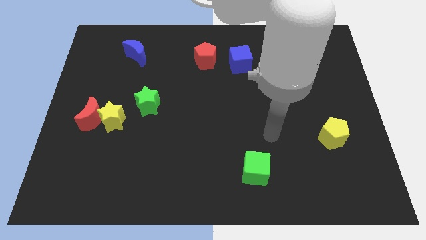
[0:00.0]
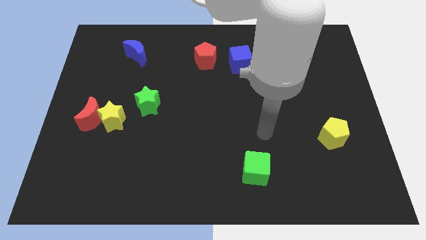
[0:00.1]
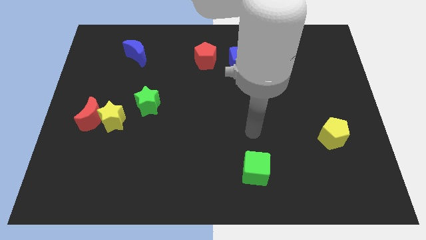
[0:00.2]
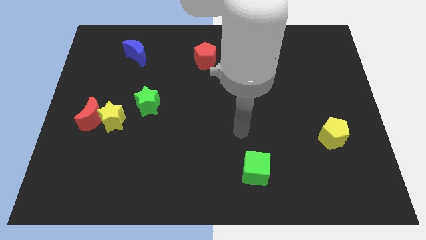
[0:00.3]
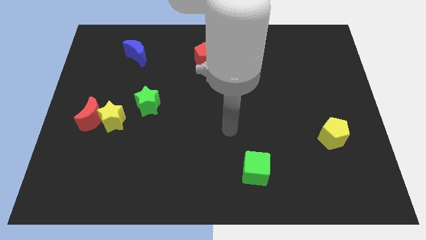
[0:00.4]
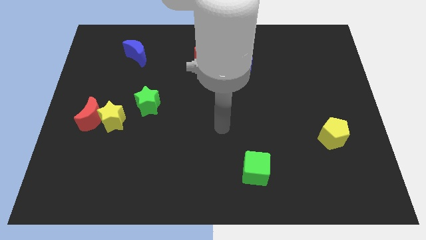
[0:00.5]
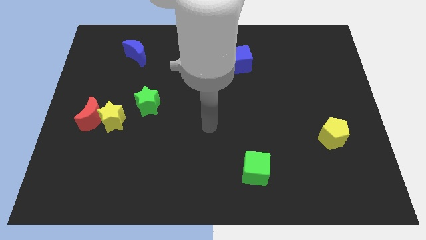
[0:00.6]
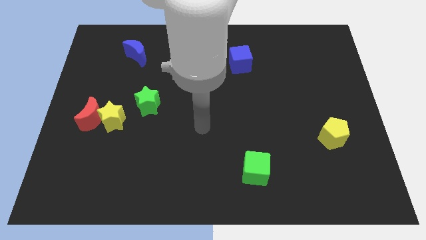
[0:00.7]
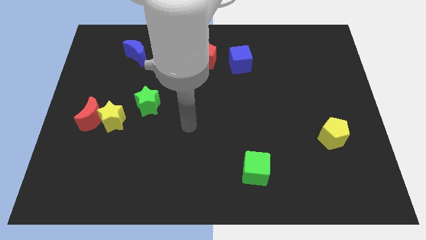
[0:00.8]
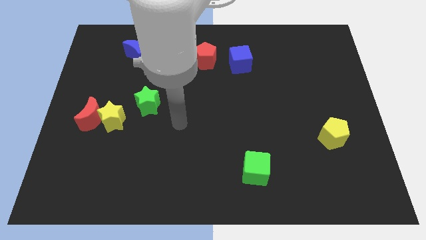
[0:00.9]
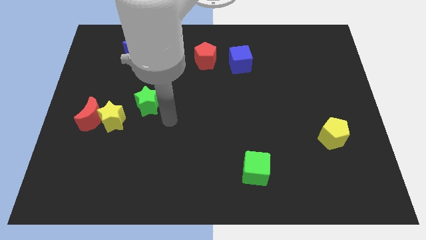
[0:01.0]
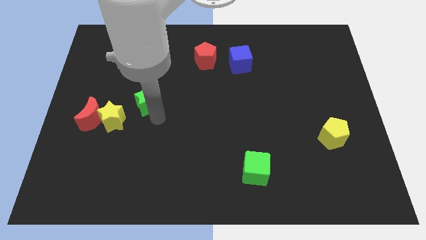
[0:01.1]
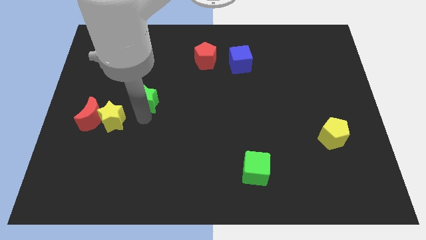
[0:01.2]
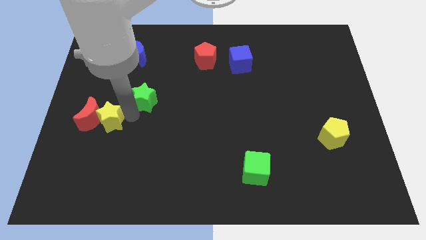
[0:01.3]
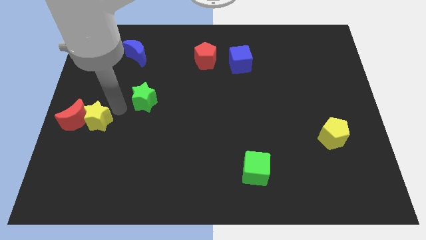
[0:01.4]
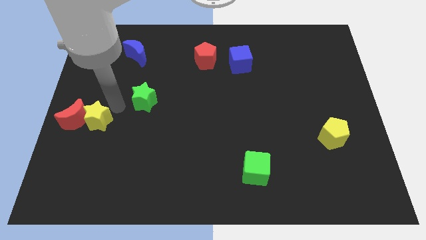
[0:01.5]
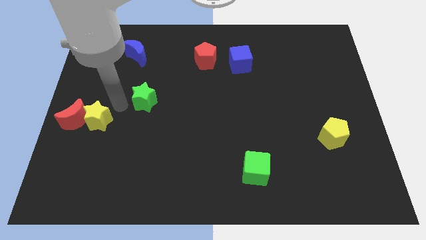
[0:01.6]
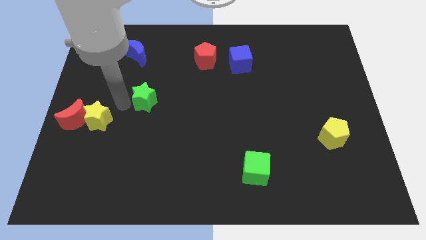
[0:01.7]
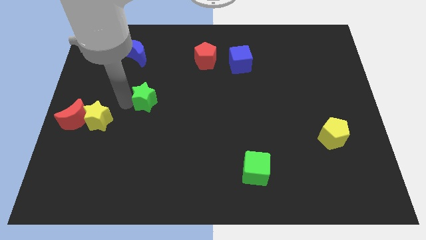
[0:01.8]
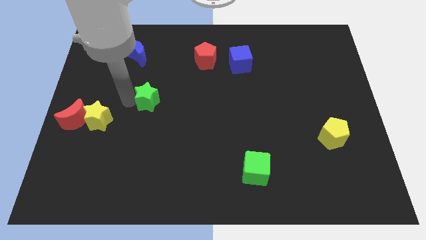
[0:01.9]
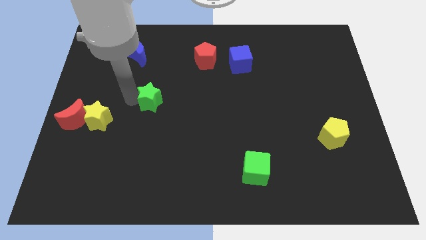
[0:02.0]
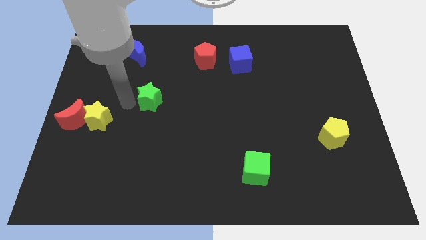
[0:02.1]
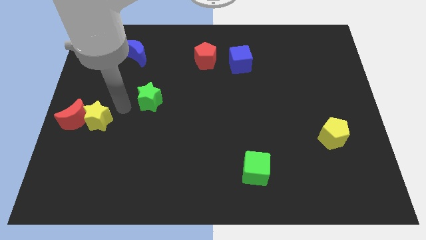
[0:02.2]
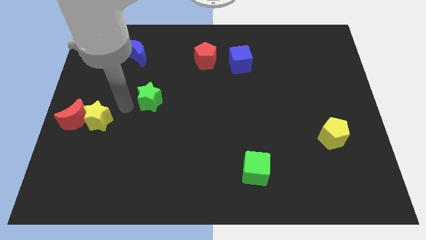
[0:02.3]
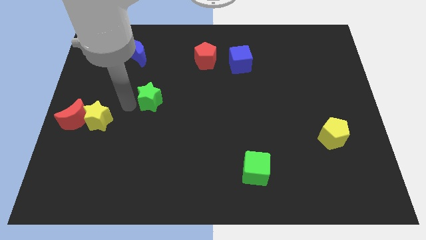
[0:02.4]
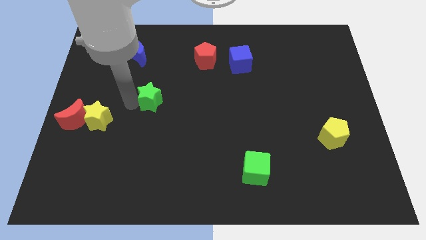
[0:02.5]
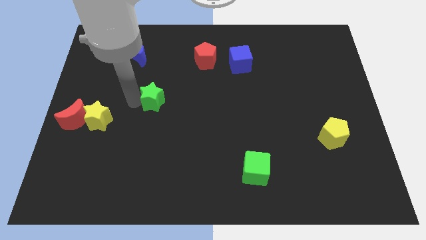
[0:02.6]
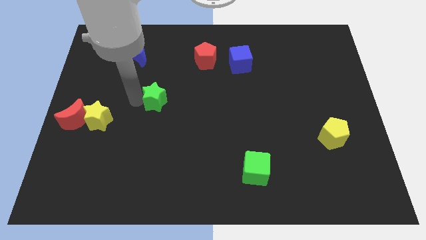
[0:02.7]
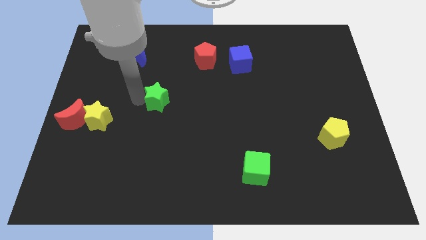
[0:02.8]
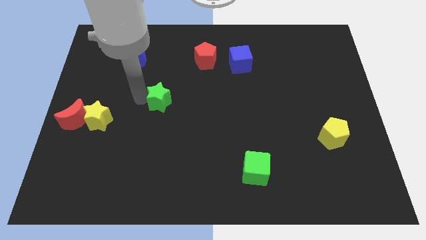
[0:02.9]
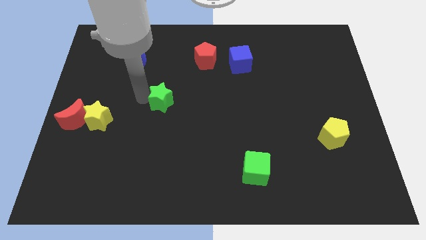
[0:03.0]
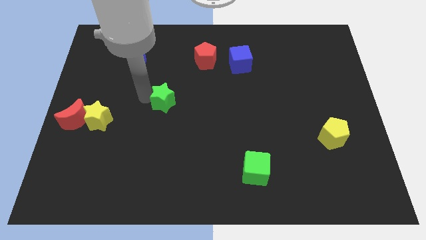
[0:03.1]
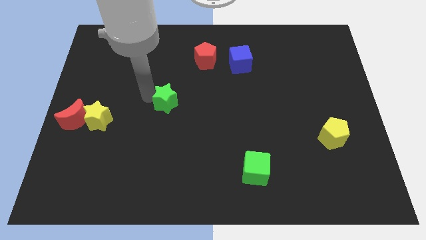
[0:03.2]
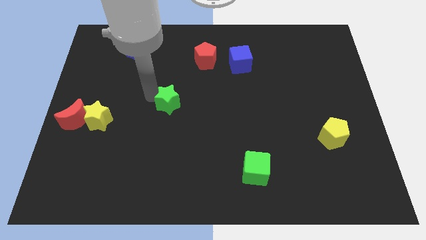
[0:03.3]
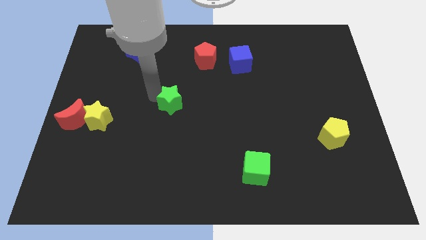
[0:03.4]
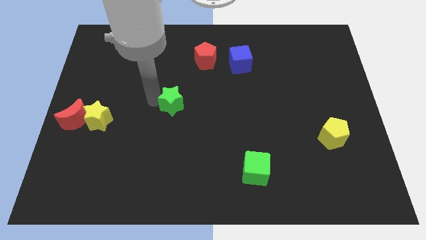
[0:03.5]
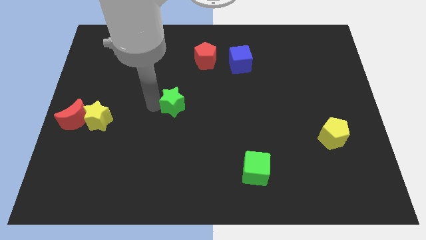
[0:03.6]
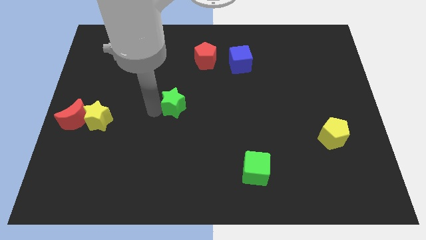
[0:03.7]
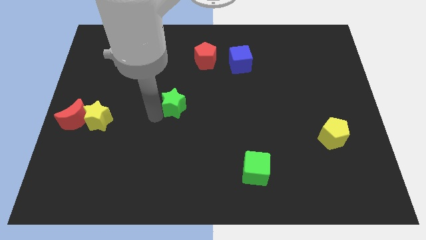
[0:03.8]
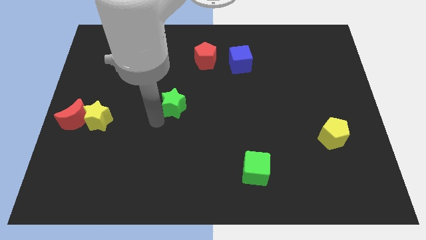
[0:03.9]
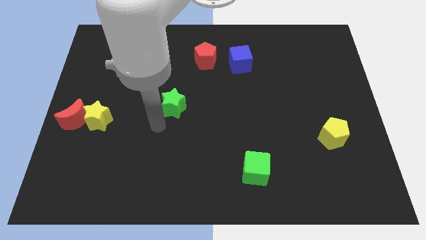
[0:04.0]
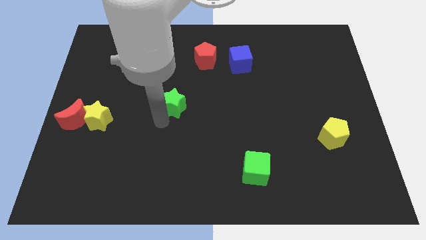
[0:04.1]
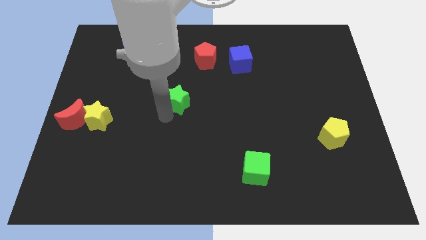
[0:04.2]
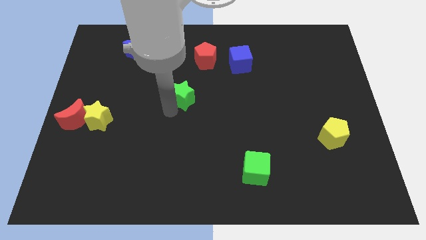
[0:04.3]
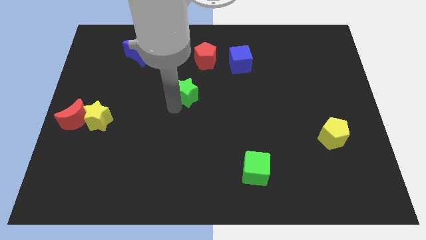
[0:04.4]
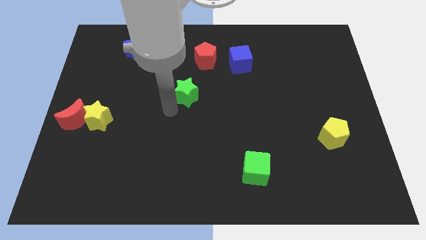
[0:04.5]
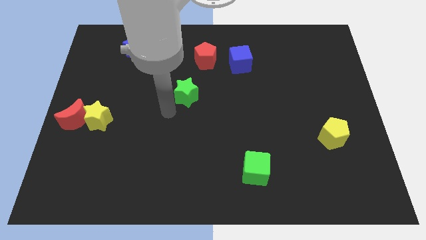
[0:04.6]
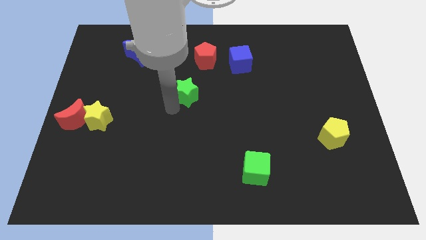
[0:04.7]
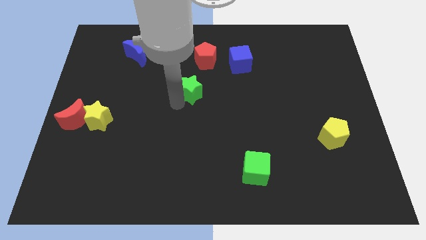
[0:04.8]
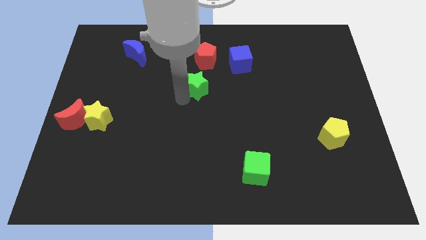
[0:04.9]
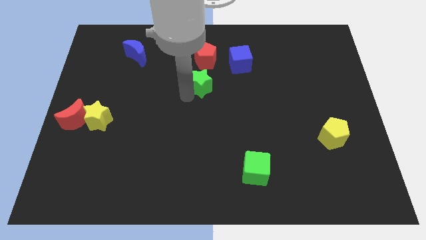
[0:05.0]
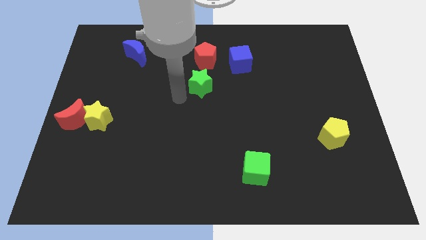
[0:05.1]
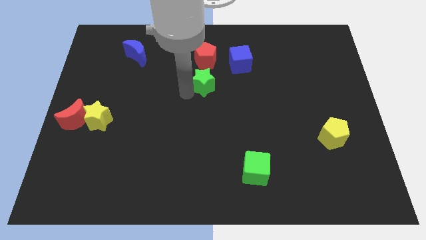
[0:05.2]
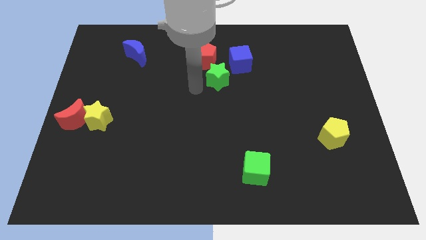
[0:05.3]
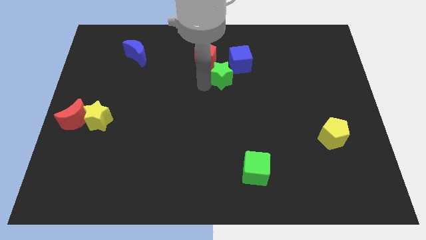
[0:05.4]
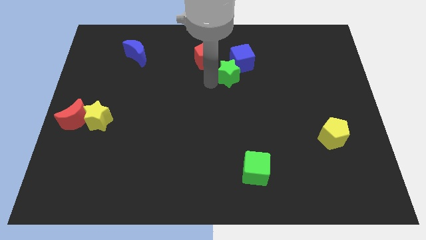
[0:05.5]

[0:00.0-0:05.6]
put the green star towards the blue cube

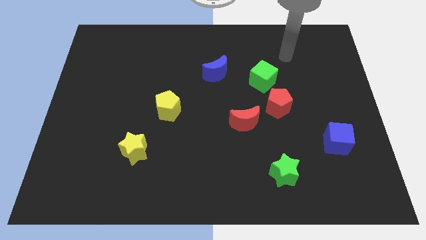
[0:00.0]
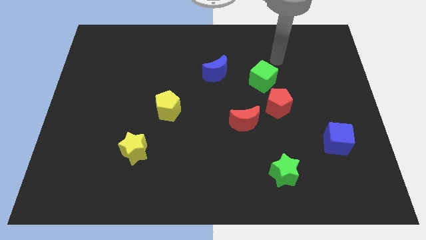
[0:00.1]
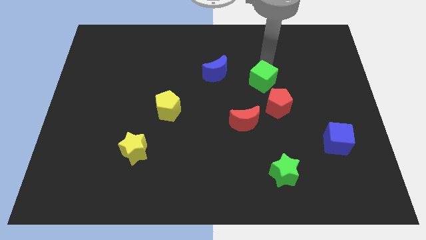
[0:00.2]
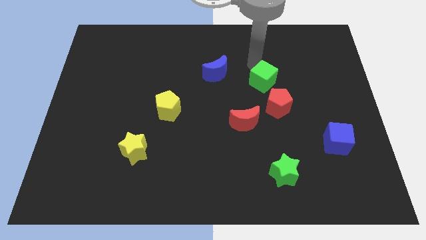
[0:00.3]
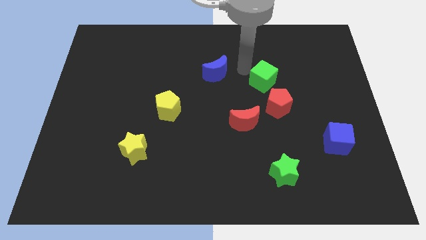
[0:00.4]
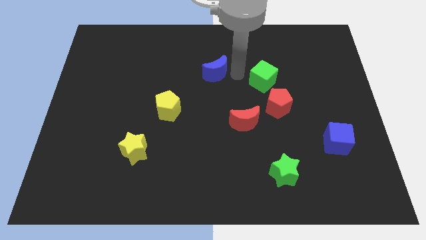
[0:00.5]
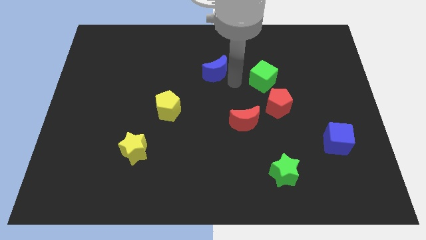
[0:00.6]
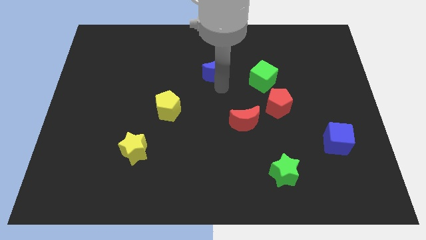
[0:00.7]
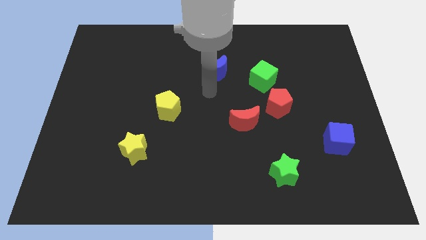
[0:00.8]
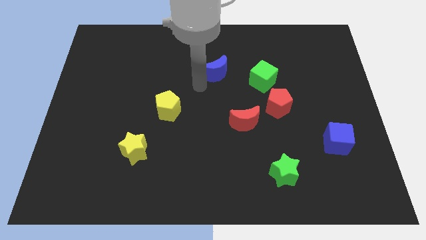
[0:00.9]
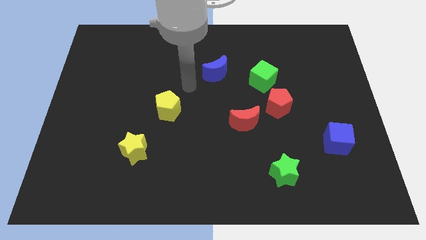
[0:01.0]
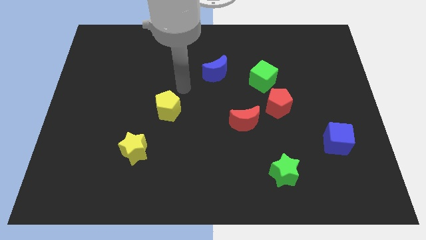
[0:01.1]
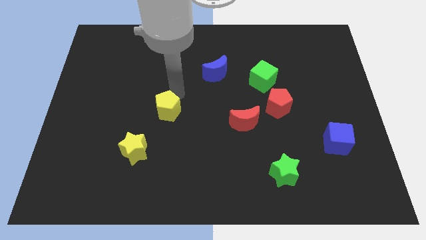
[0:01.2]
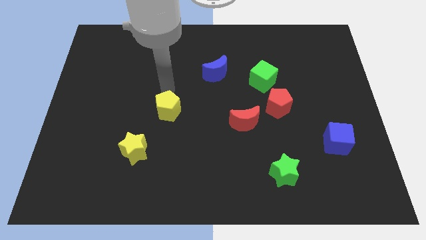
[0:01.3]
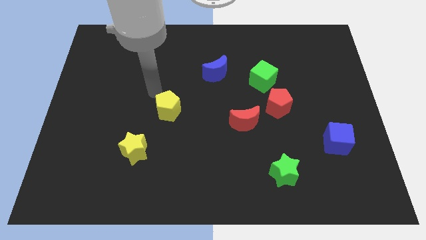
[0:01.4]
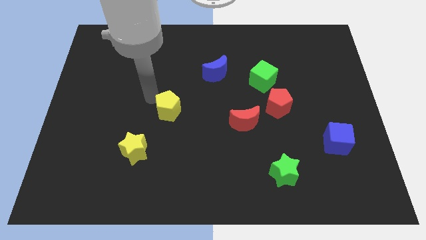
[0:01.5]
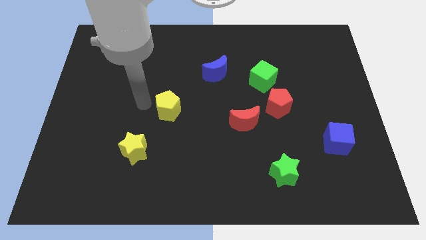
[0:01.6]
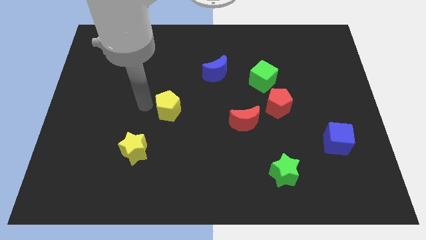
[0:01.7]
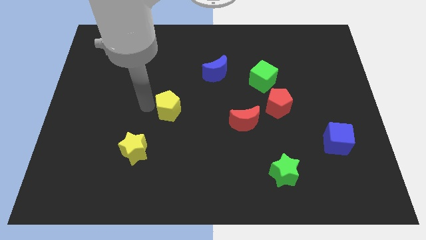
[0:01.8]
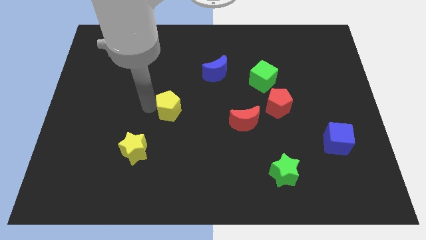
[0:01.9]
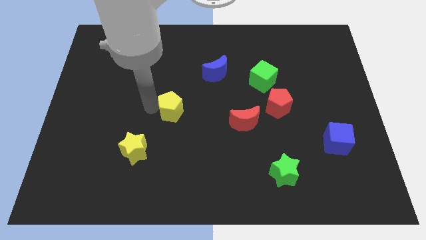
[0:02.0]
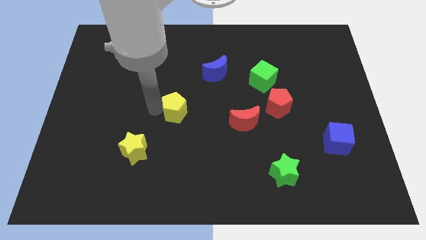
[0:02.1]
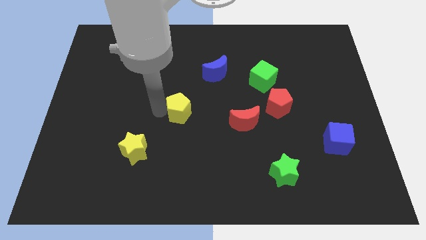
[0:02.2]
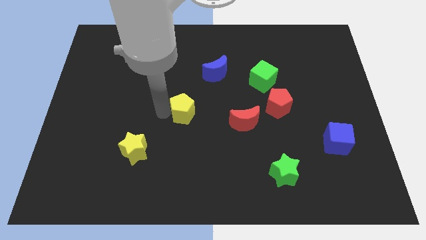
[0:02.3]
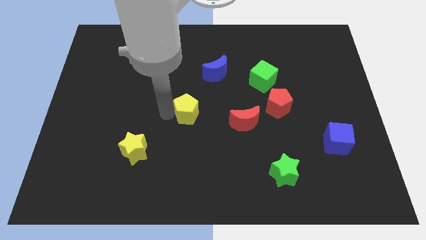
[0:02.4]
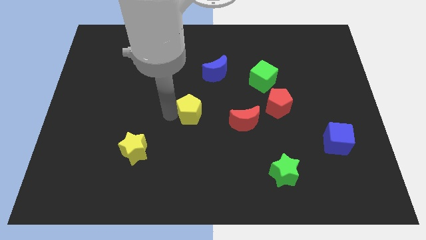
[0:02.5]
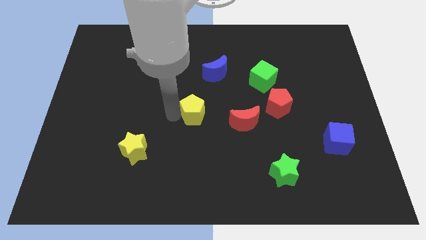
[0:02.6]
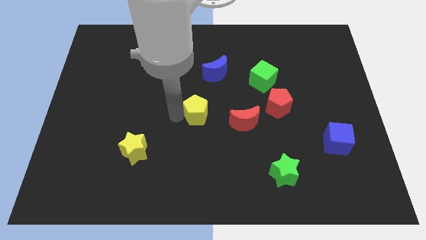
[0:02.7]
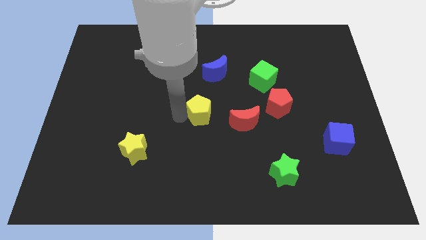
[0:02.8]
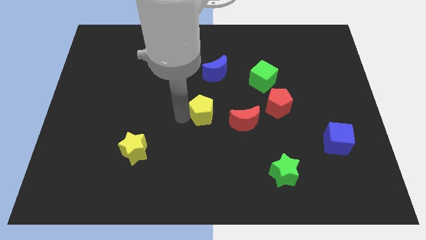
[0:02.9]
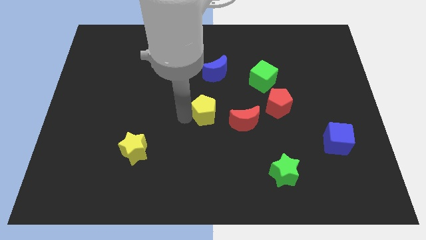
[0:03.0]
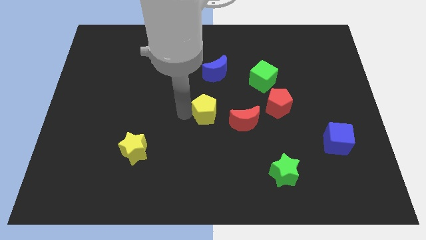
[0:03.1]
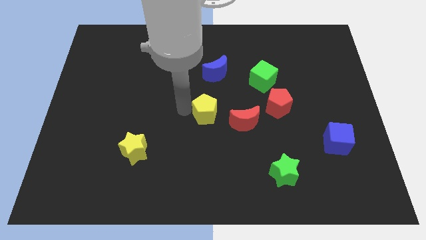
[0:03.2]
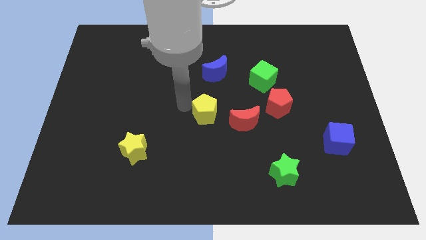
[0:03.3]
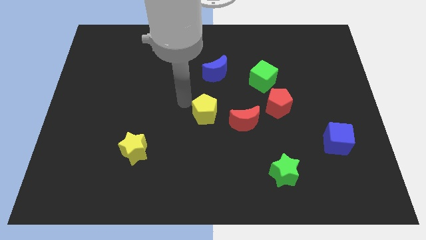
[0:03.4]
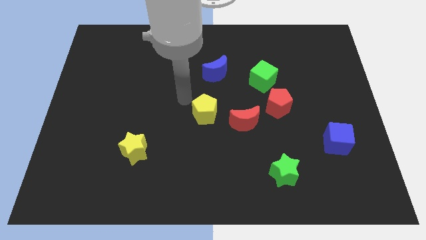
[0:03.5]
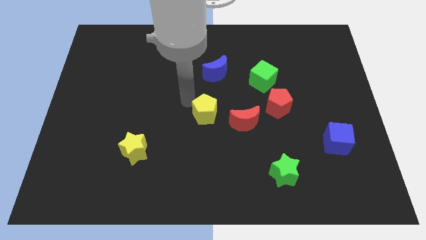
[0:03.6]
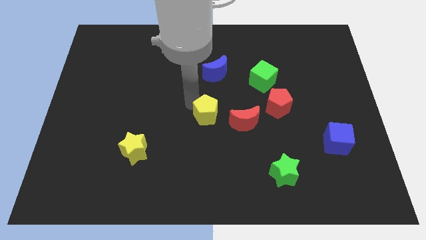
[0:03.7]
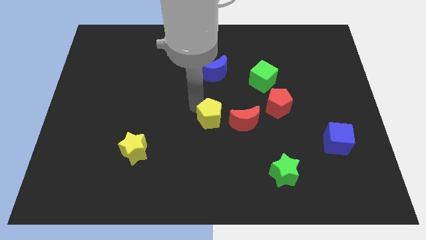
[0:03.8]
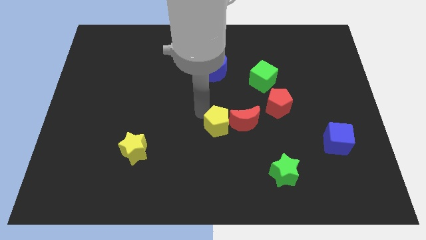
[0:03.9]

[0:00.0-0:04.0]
push the yellow pentagon next to the red moon
